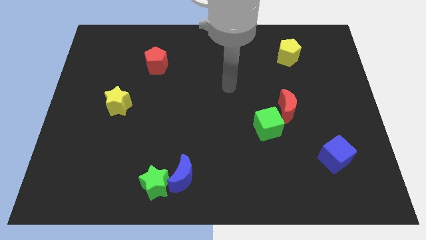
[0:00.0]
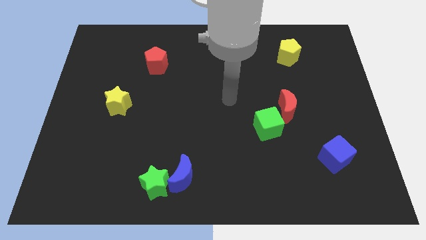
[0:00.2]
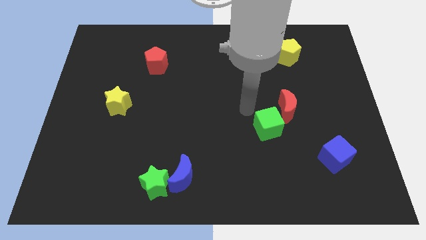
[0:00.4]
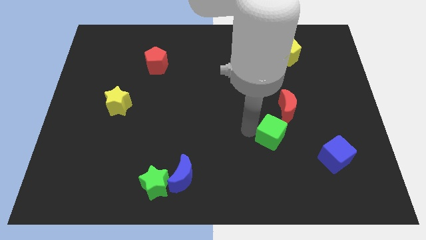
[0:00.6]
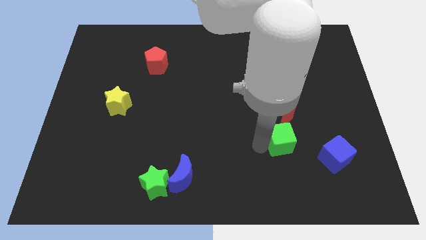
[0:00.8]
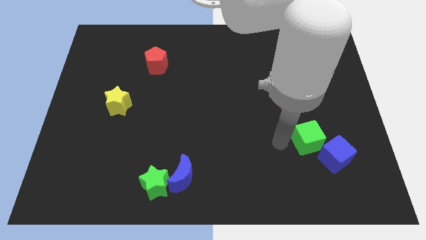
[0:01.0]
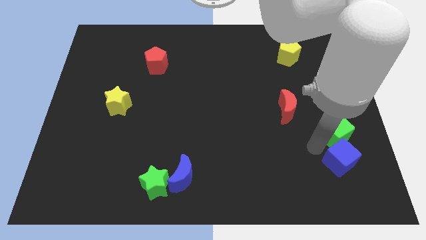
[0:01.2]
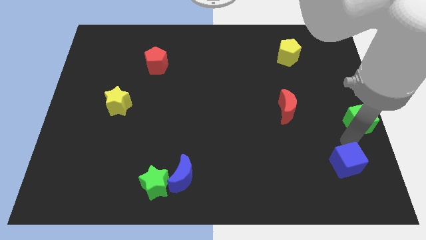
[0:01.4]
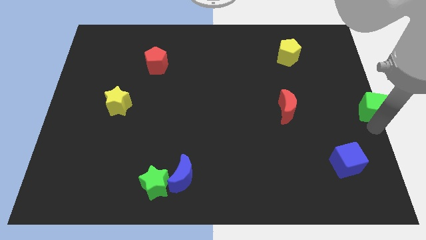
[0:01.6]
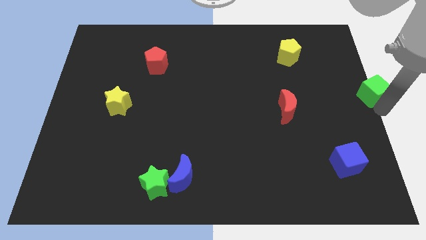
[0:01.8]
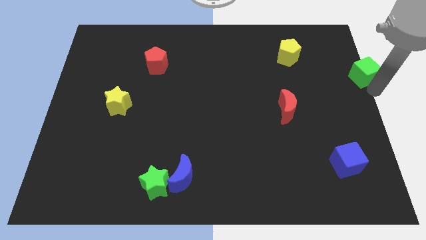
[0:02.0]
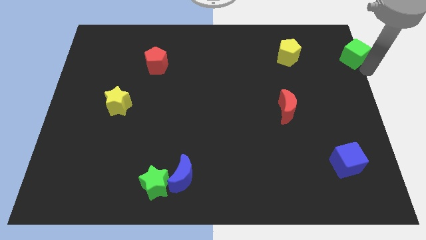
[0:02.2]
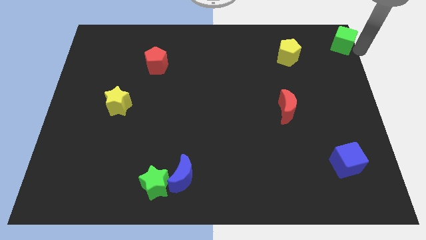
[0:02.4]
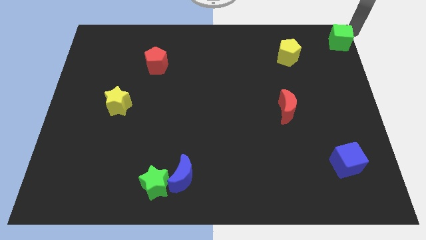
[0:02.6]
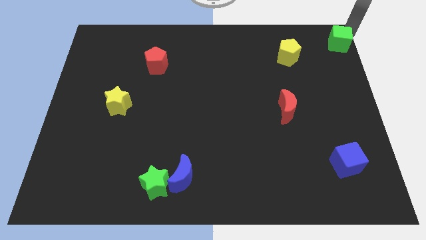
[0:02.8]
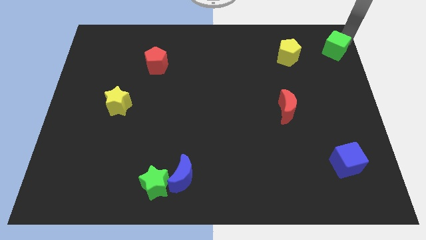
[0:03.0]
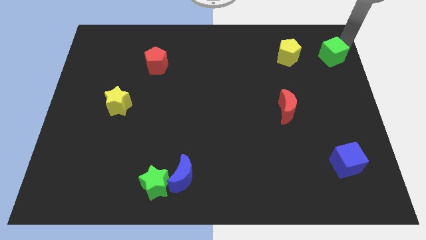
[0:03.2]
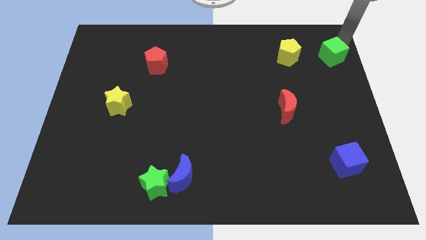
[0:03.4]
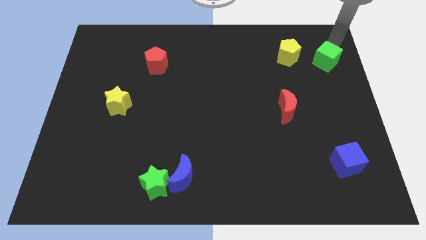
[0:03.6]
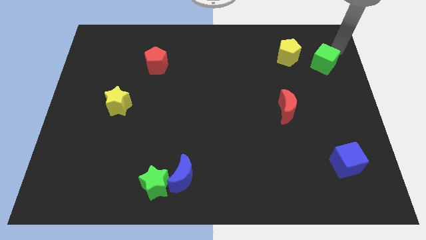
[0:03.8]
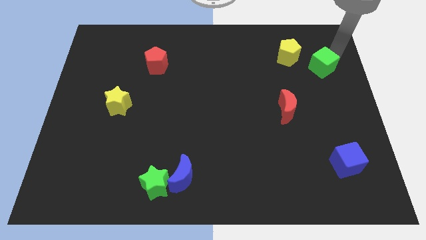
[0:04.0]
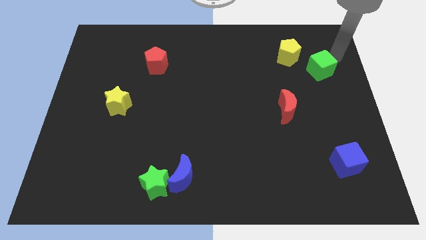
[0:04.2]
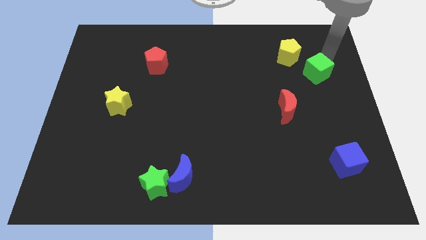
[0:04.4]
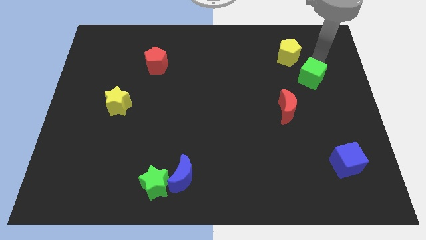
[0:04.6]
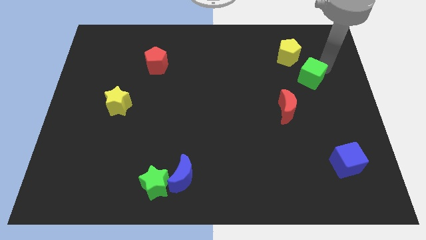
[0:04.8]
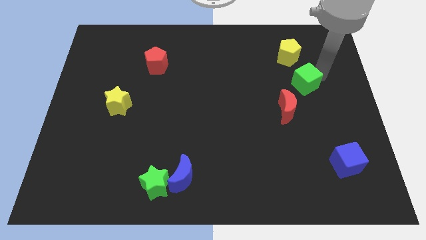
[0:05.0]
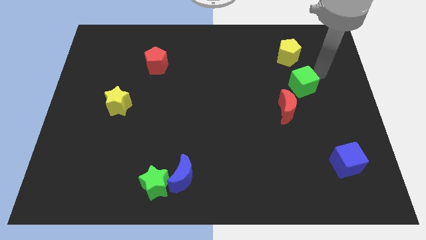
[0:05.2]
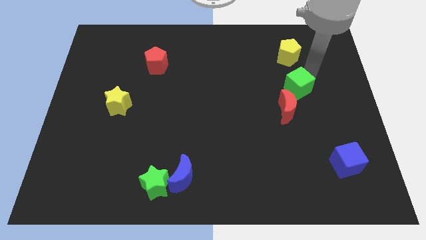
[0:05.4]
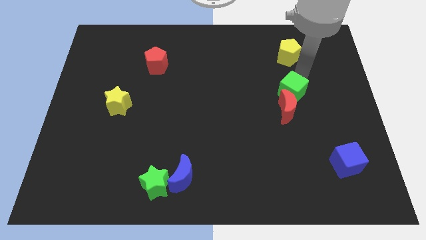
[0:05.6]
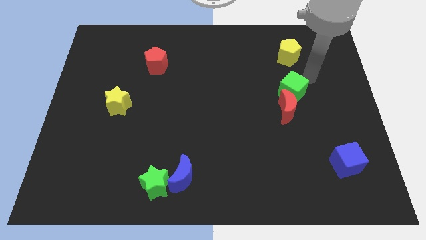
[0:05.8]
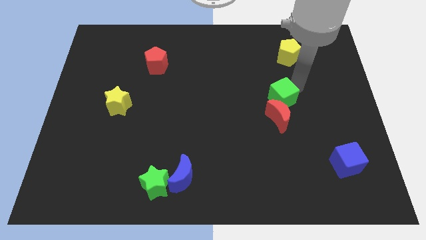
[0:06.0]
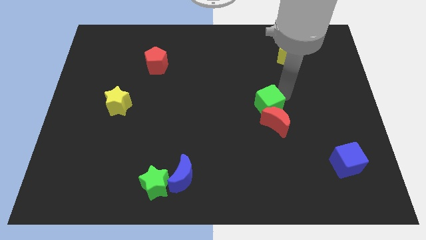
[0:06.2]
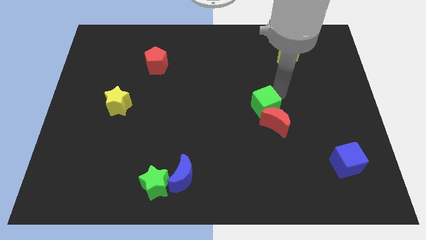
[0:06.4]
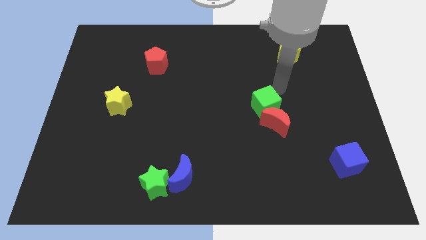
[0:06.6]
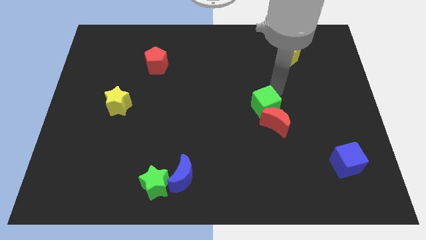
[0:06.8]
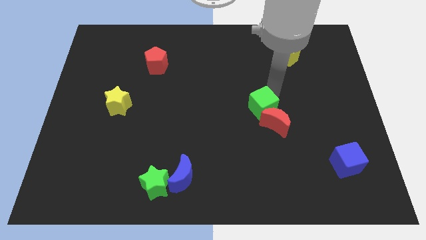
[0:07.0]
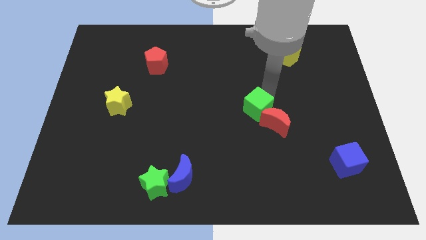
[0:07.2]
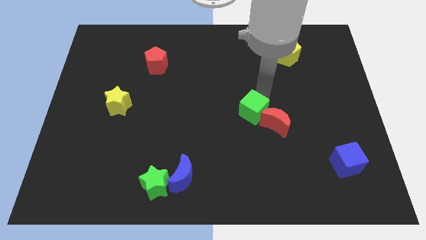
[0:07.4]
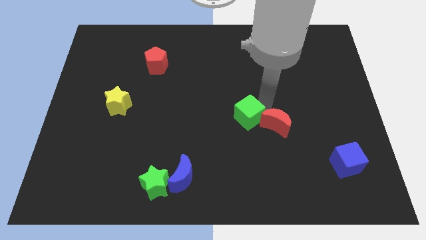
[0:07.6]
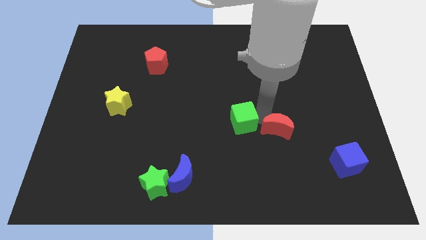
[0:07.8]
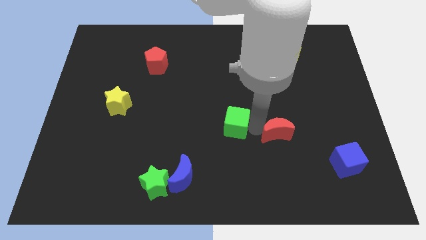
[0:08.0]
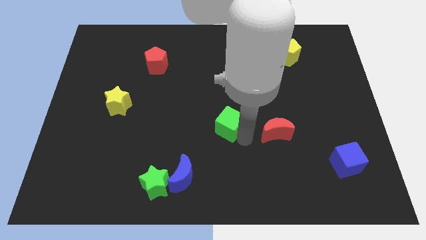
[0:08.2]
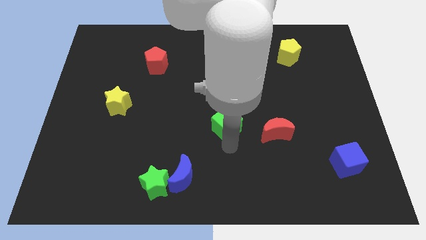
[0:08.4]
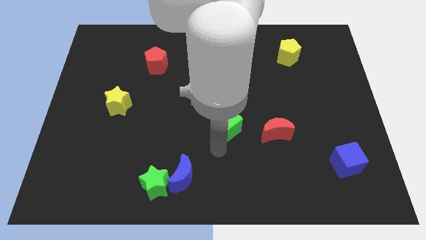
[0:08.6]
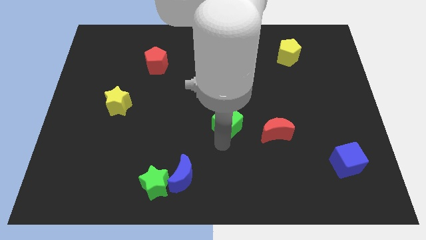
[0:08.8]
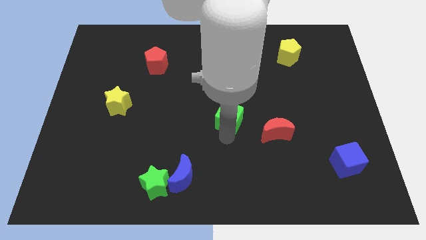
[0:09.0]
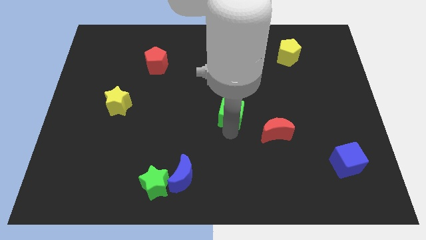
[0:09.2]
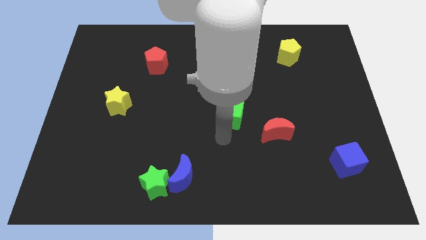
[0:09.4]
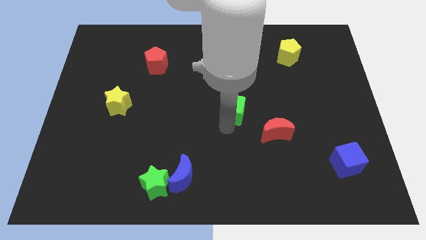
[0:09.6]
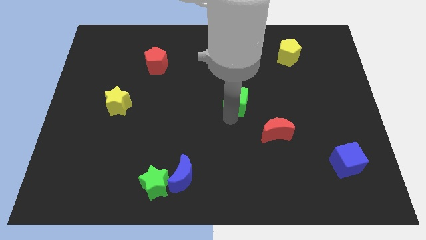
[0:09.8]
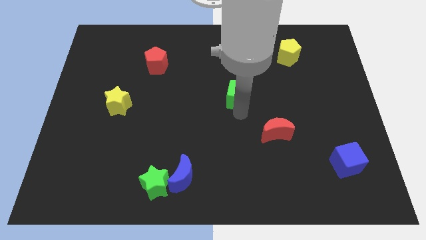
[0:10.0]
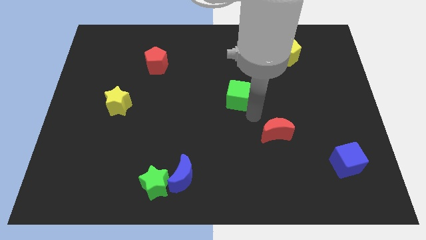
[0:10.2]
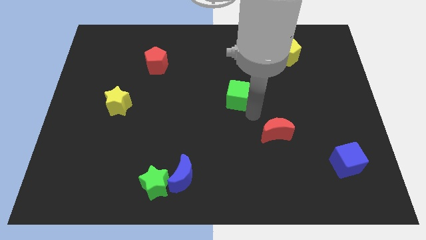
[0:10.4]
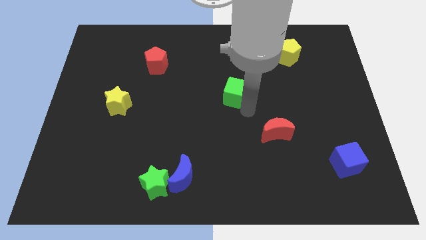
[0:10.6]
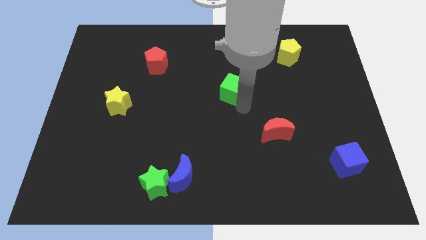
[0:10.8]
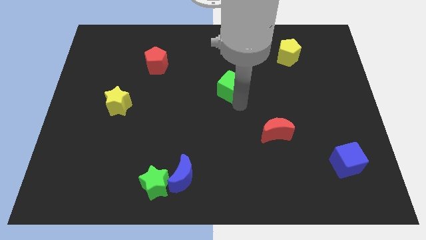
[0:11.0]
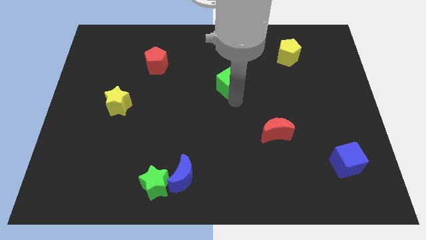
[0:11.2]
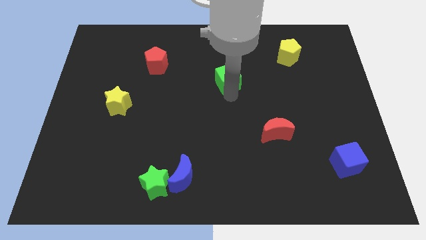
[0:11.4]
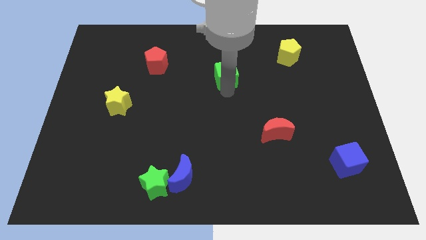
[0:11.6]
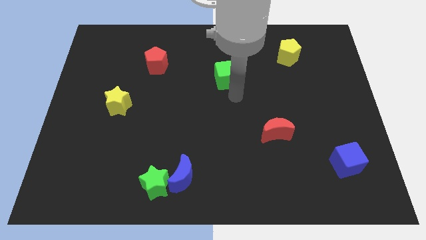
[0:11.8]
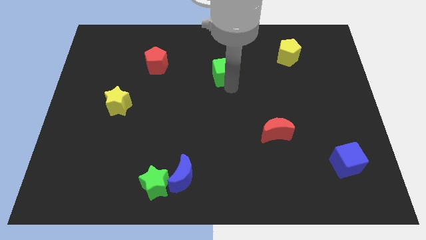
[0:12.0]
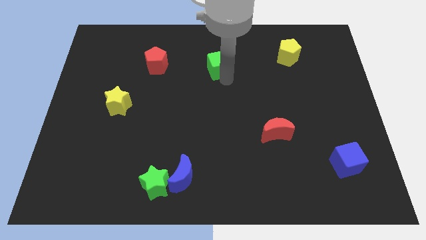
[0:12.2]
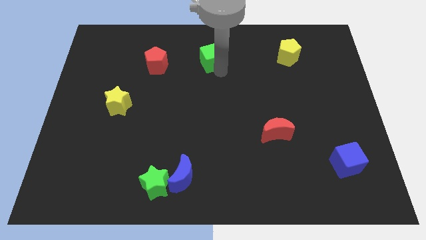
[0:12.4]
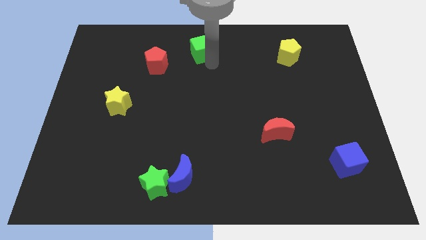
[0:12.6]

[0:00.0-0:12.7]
move the green cube to the top side

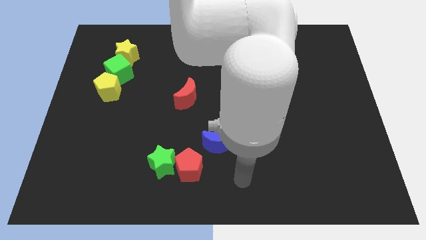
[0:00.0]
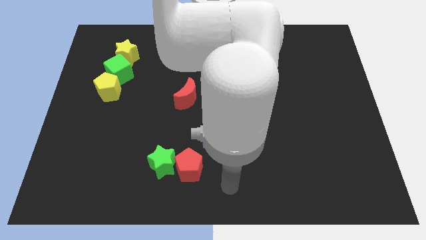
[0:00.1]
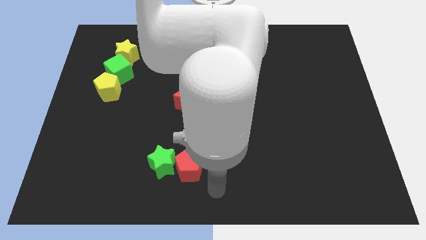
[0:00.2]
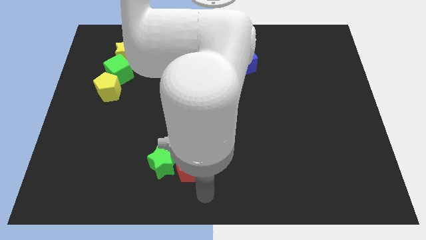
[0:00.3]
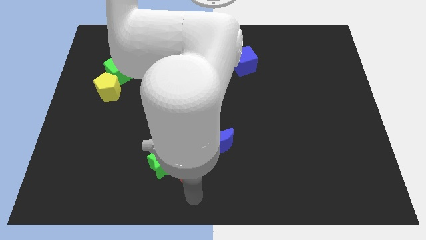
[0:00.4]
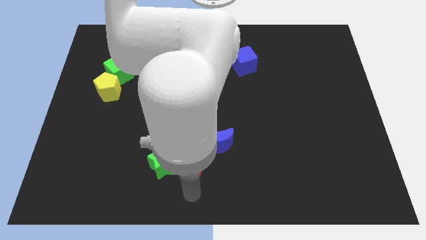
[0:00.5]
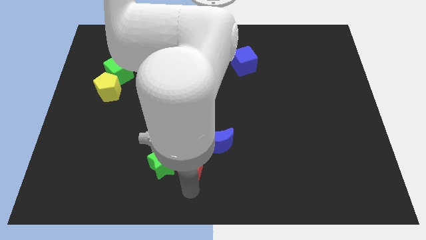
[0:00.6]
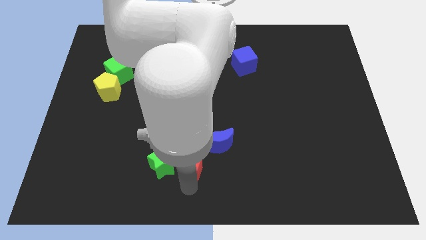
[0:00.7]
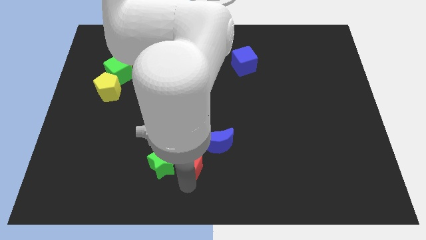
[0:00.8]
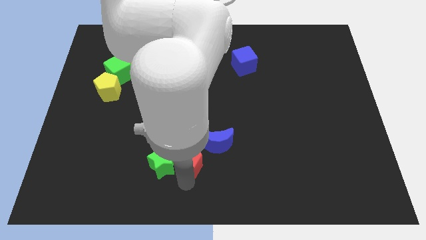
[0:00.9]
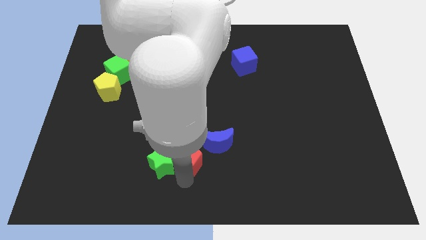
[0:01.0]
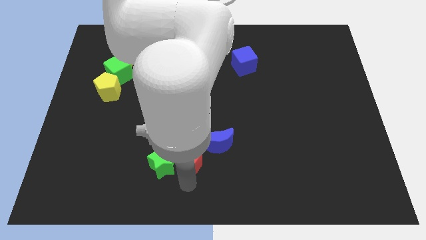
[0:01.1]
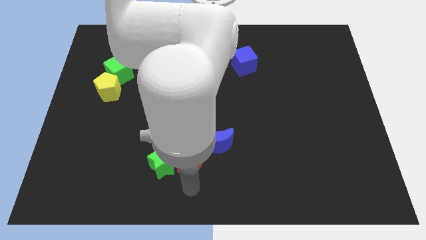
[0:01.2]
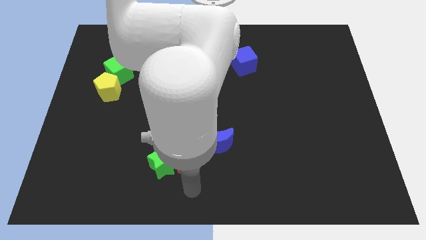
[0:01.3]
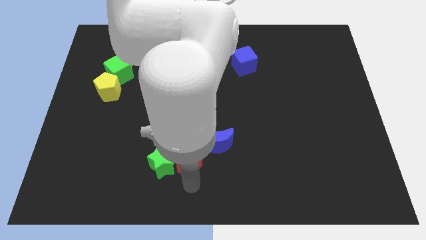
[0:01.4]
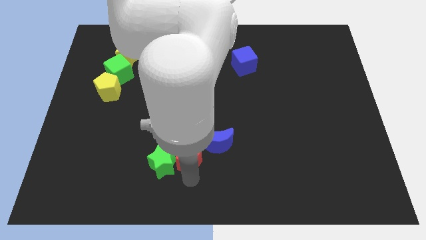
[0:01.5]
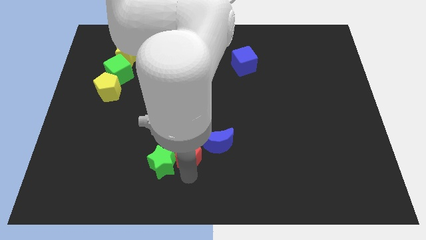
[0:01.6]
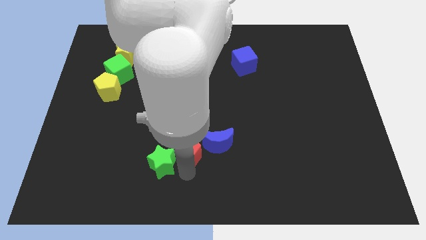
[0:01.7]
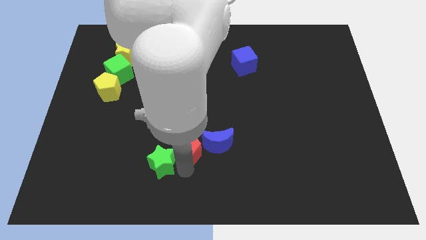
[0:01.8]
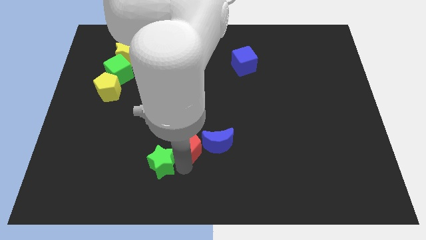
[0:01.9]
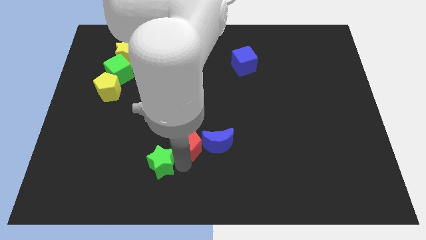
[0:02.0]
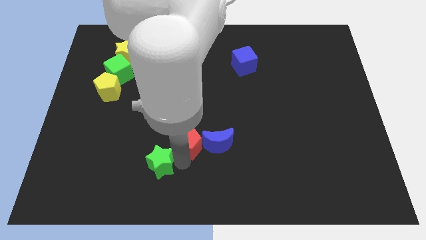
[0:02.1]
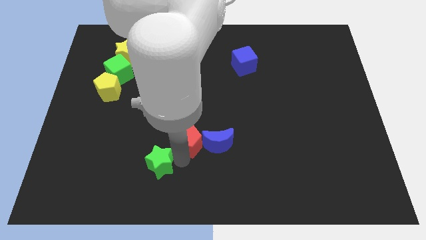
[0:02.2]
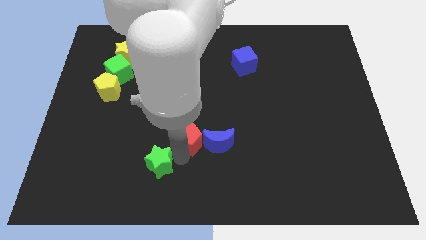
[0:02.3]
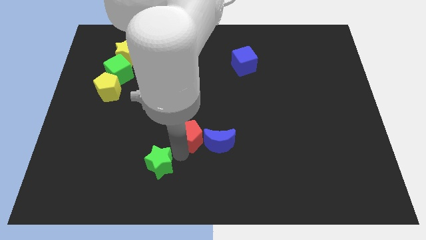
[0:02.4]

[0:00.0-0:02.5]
push the red pentagon to the middle
